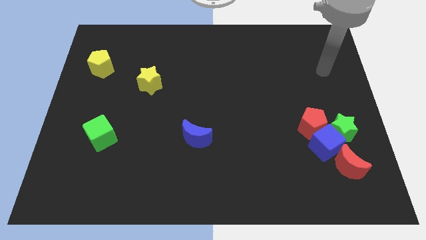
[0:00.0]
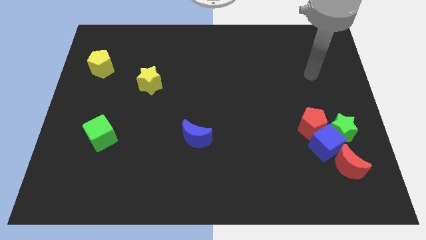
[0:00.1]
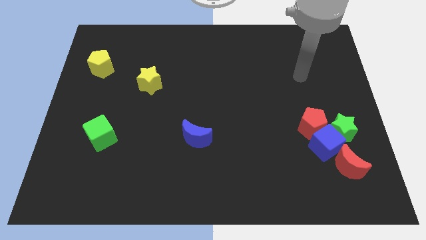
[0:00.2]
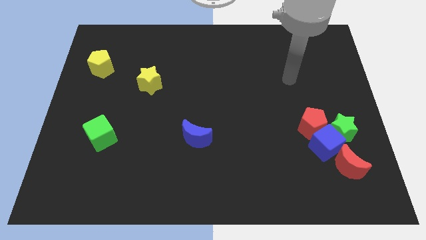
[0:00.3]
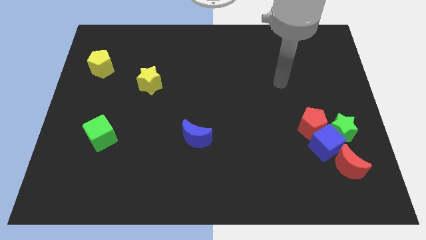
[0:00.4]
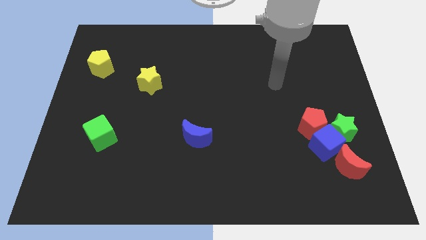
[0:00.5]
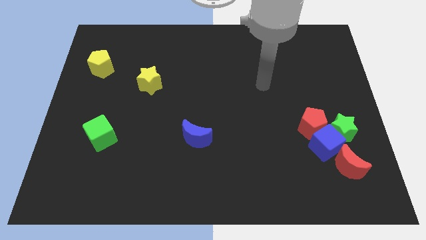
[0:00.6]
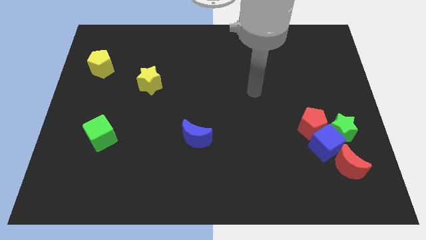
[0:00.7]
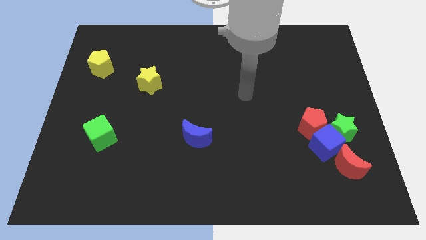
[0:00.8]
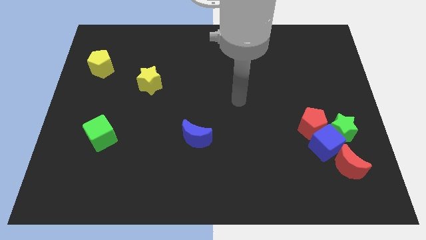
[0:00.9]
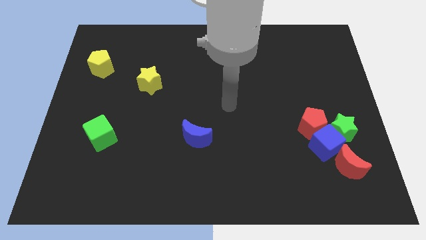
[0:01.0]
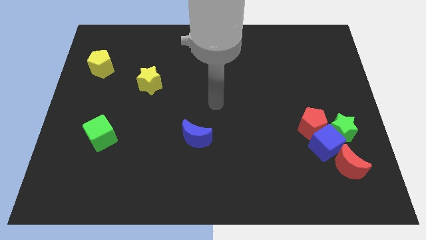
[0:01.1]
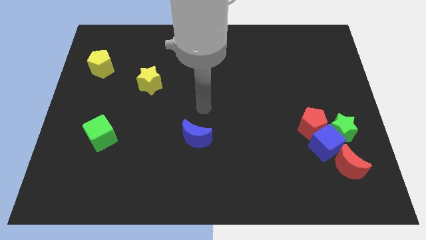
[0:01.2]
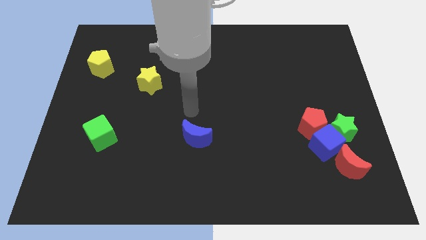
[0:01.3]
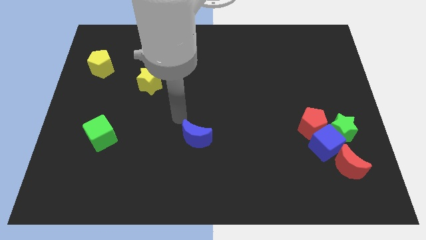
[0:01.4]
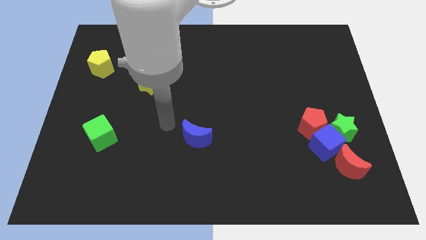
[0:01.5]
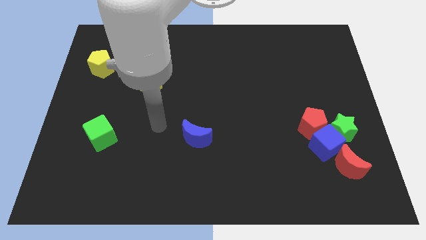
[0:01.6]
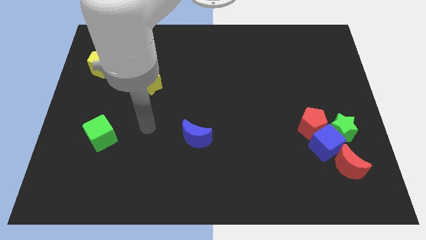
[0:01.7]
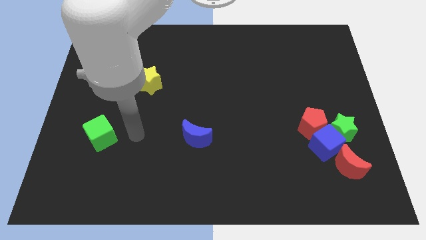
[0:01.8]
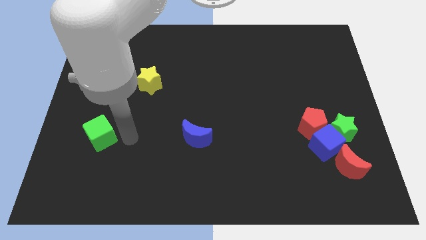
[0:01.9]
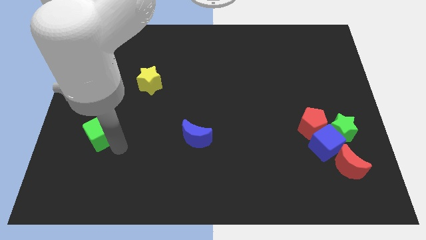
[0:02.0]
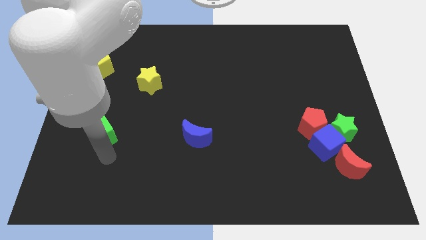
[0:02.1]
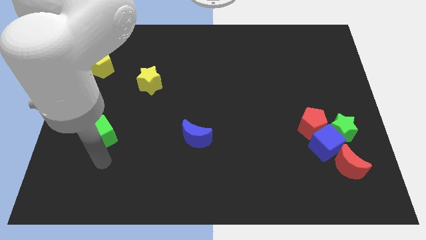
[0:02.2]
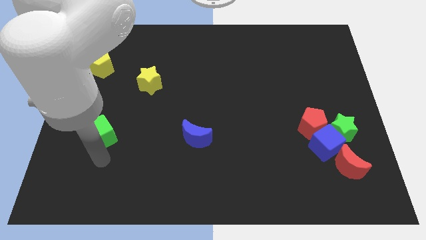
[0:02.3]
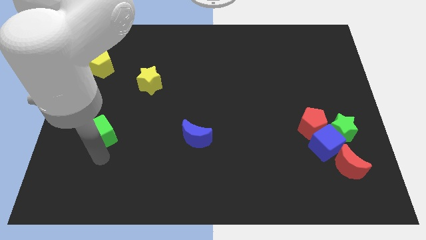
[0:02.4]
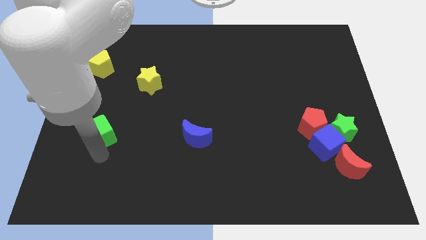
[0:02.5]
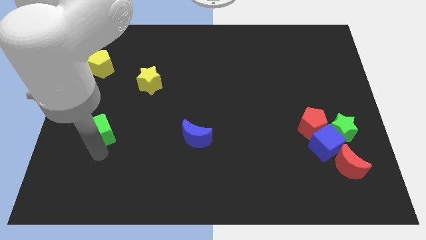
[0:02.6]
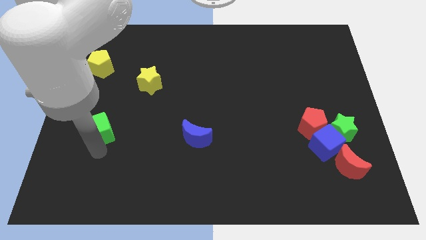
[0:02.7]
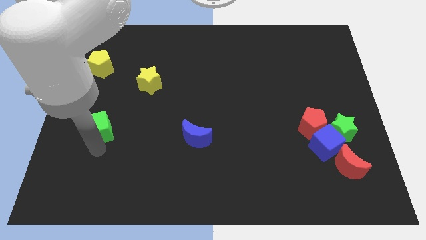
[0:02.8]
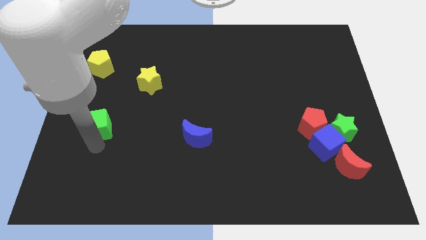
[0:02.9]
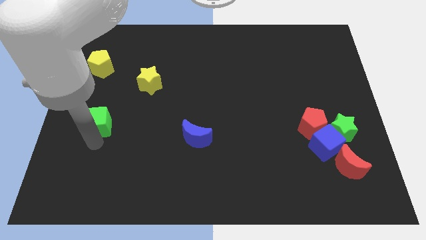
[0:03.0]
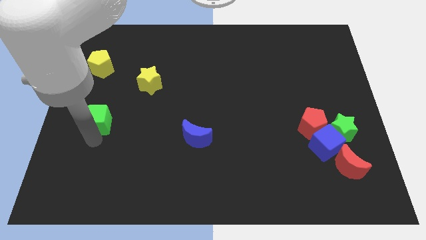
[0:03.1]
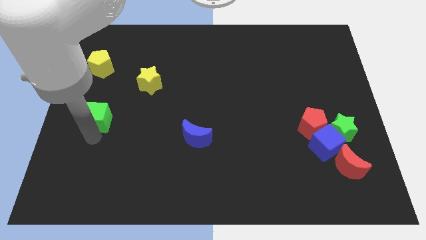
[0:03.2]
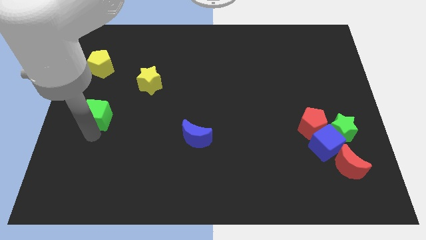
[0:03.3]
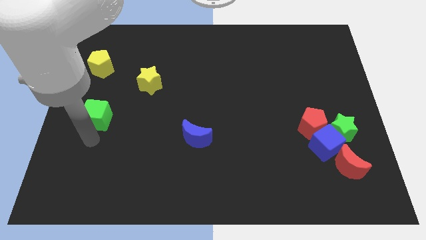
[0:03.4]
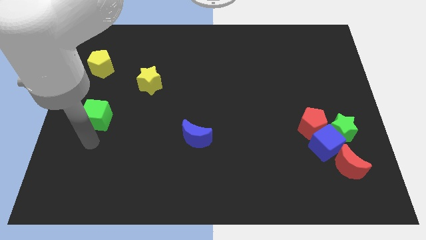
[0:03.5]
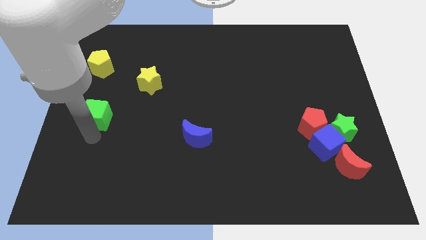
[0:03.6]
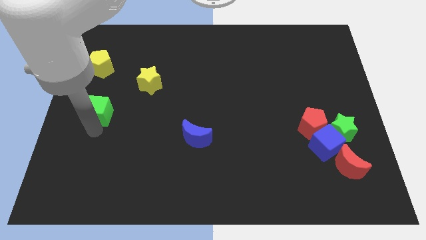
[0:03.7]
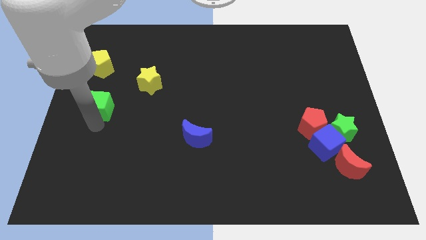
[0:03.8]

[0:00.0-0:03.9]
slide the green cube a bit upwards

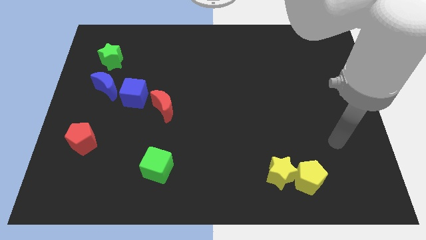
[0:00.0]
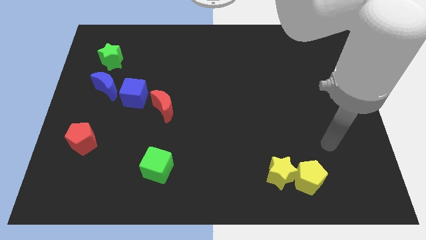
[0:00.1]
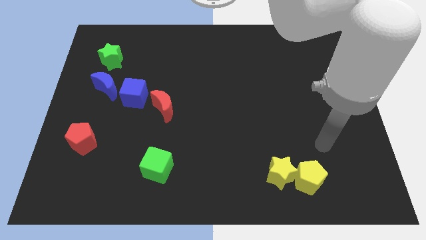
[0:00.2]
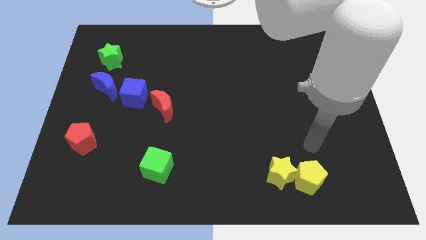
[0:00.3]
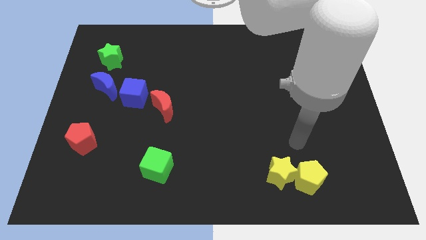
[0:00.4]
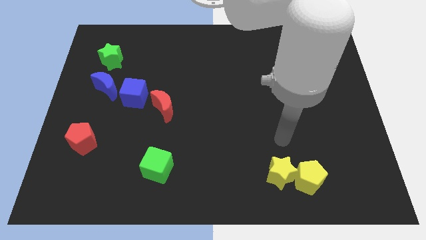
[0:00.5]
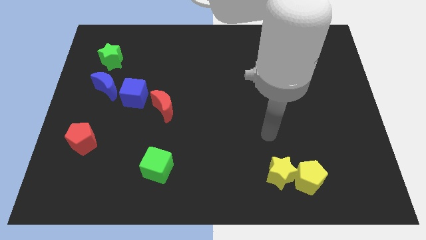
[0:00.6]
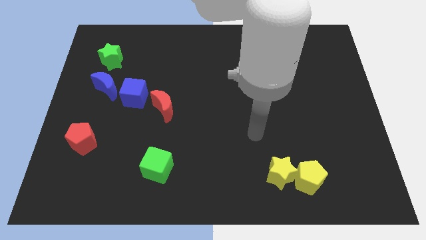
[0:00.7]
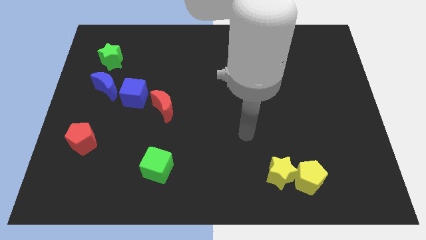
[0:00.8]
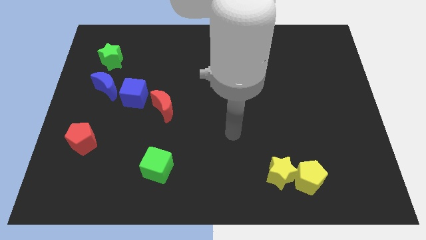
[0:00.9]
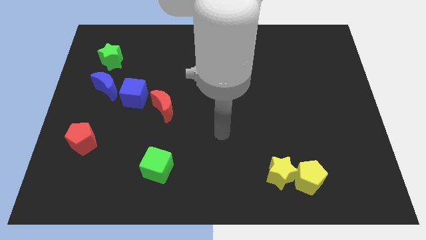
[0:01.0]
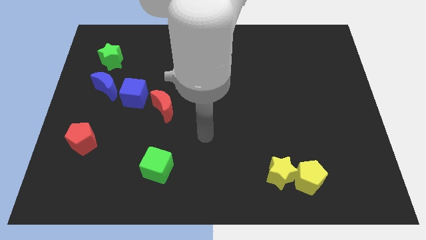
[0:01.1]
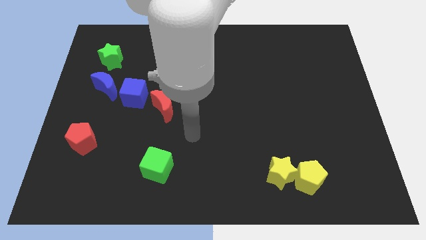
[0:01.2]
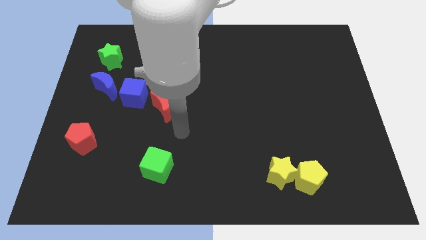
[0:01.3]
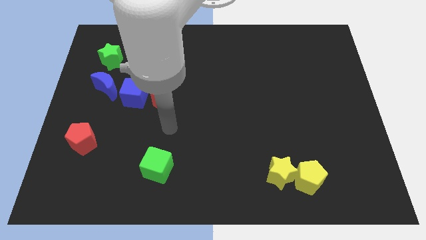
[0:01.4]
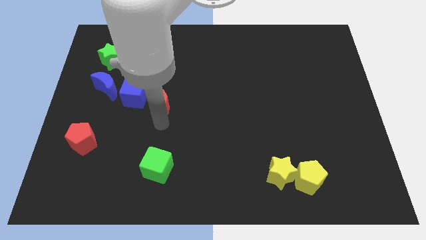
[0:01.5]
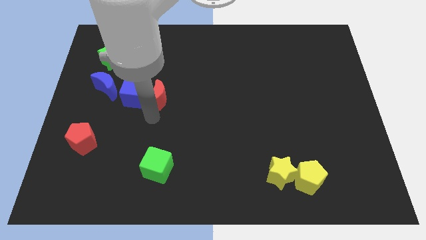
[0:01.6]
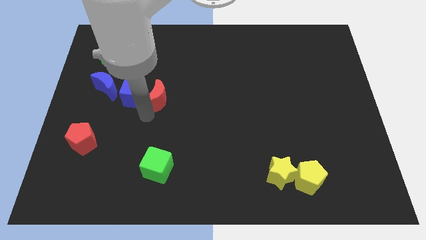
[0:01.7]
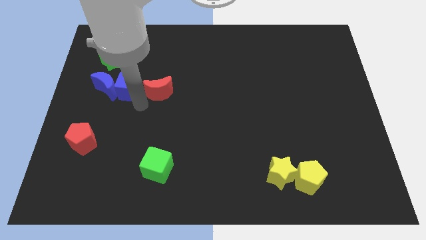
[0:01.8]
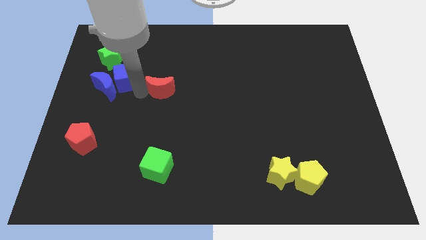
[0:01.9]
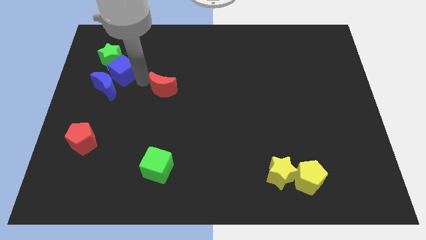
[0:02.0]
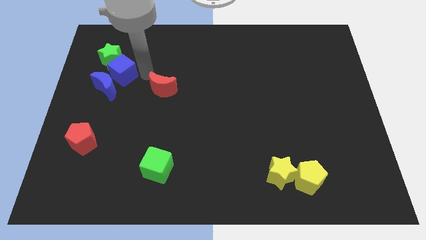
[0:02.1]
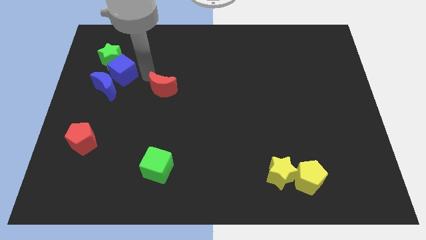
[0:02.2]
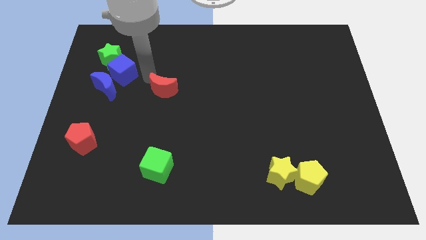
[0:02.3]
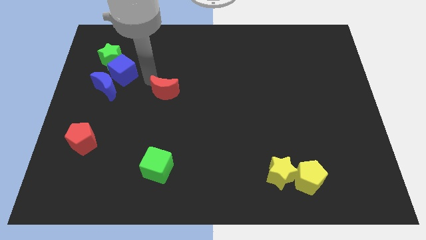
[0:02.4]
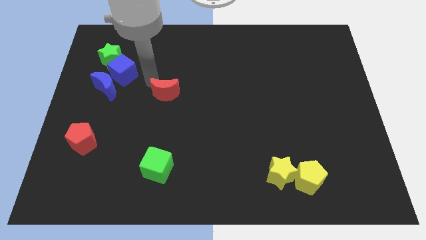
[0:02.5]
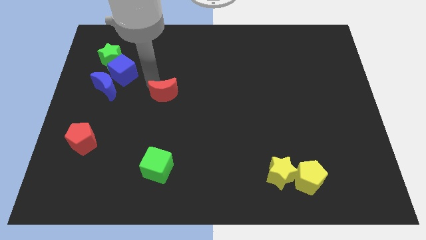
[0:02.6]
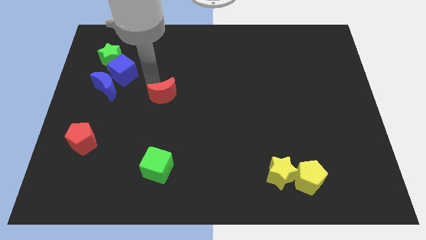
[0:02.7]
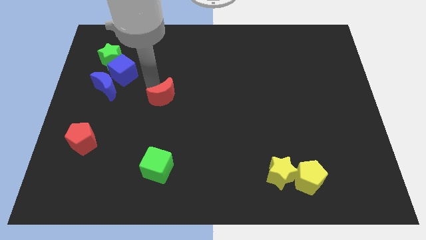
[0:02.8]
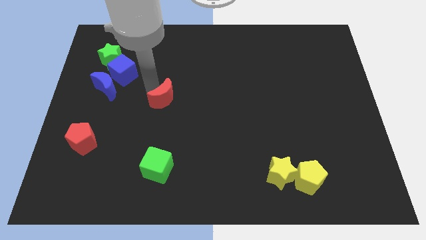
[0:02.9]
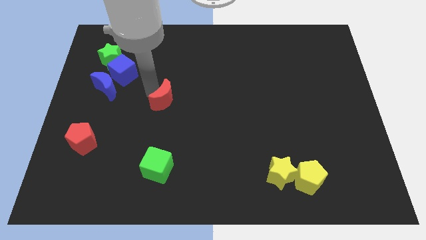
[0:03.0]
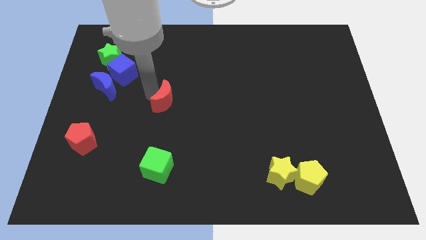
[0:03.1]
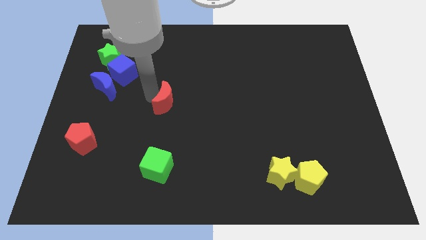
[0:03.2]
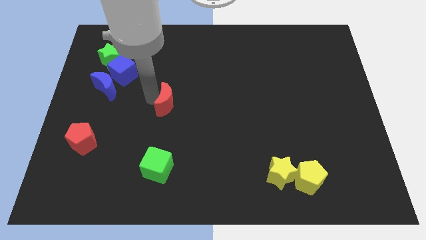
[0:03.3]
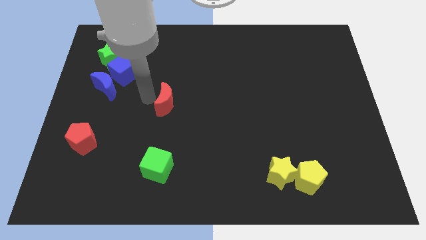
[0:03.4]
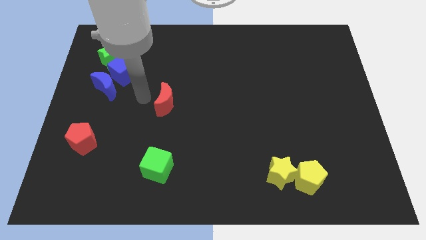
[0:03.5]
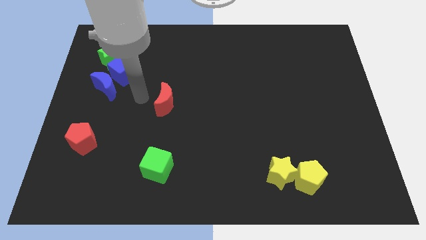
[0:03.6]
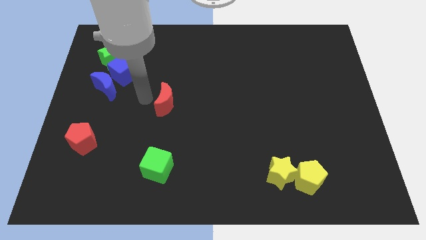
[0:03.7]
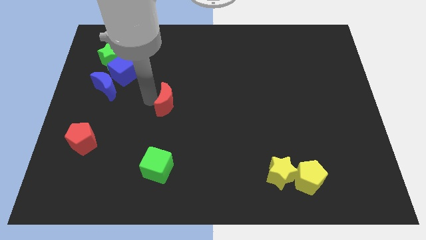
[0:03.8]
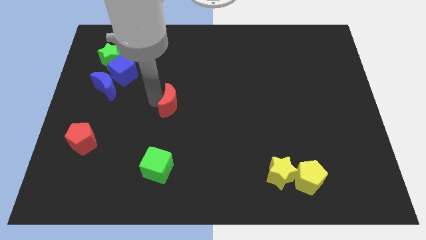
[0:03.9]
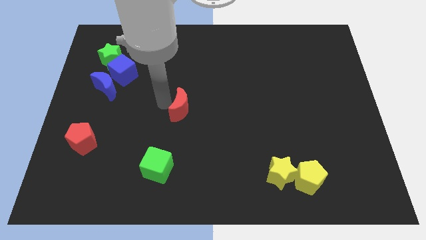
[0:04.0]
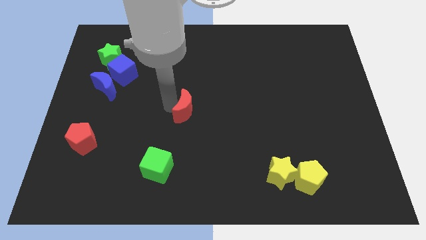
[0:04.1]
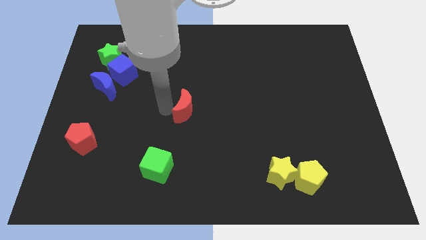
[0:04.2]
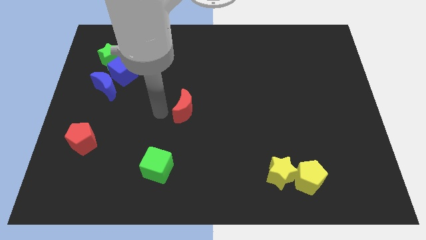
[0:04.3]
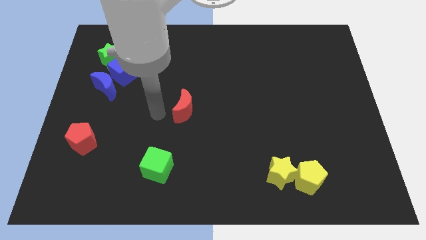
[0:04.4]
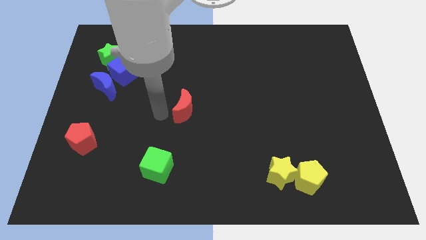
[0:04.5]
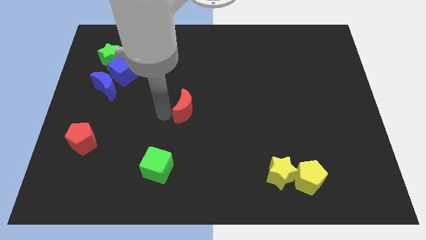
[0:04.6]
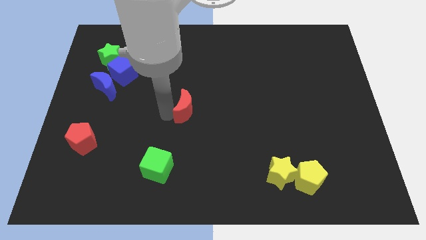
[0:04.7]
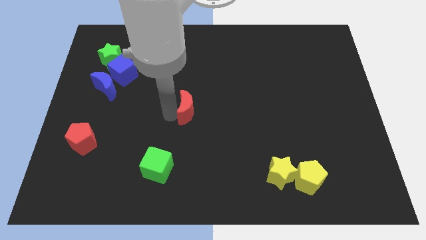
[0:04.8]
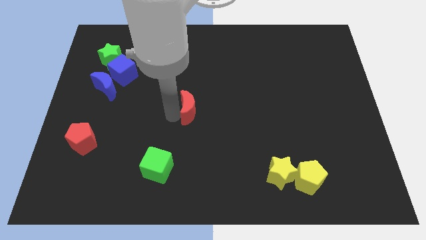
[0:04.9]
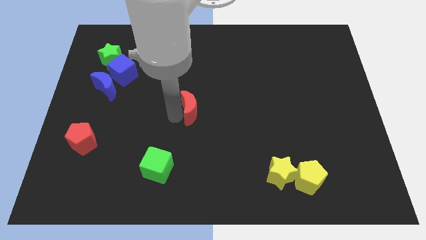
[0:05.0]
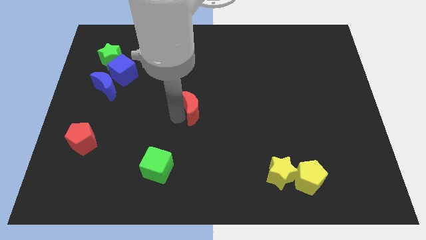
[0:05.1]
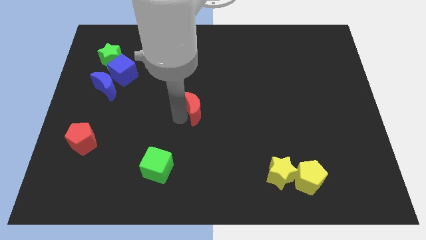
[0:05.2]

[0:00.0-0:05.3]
slightly move the red moon right
